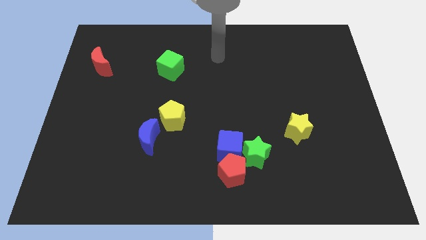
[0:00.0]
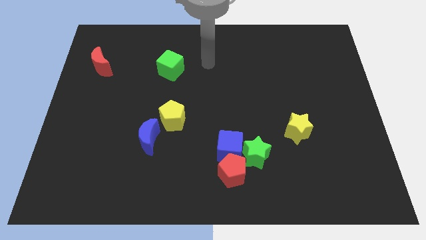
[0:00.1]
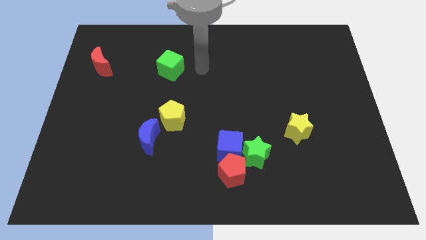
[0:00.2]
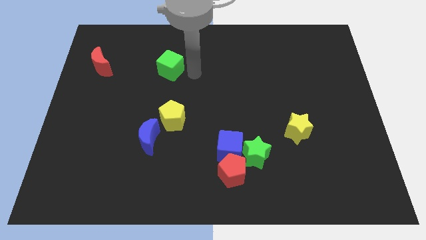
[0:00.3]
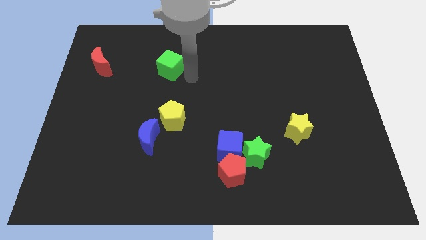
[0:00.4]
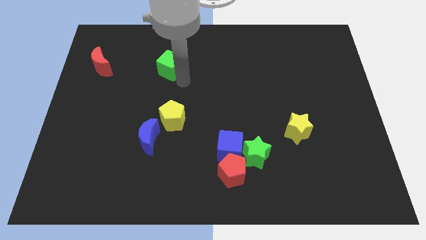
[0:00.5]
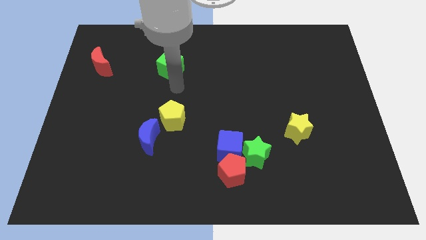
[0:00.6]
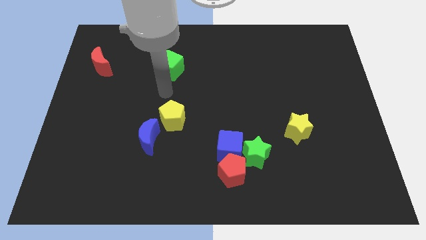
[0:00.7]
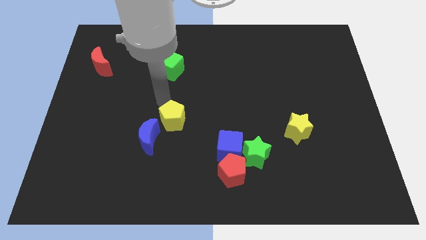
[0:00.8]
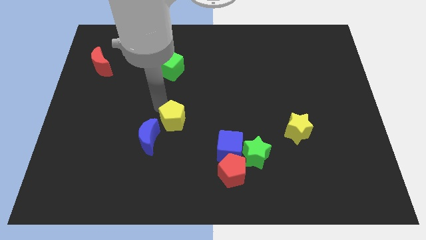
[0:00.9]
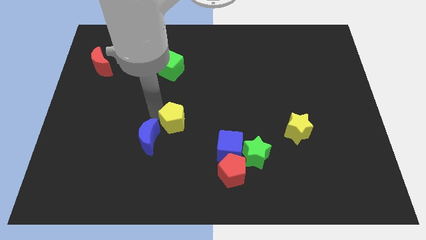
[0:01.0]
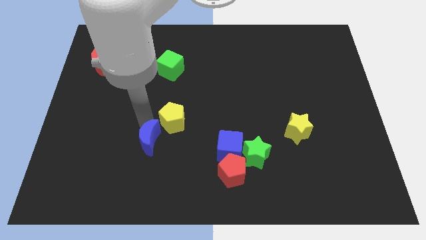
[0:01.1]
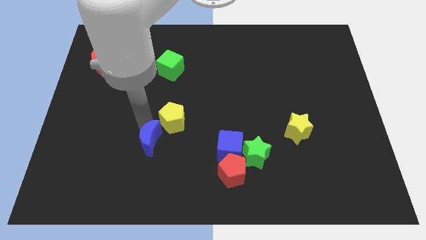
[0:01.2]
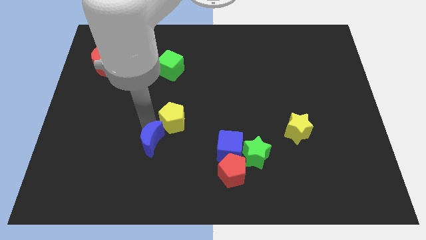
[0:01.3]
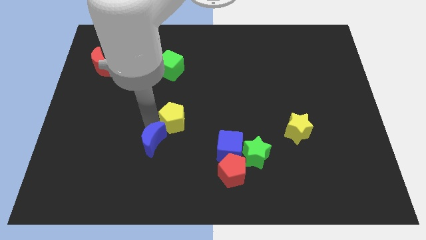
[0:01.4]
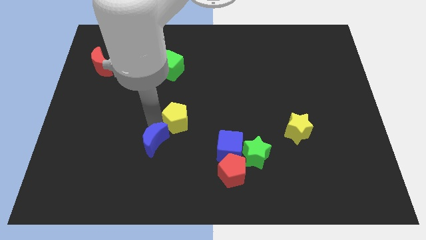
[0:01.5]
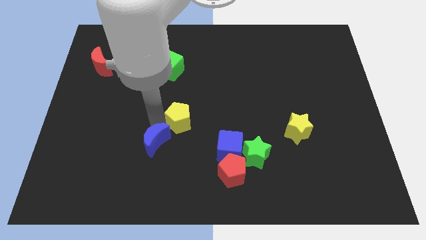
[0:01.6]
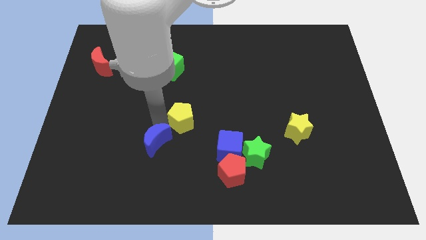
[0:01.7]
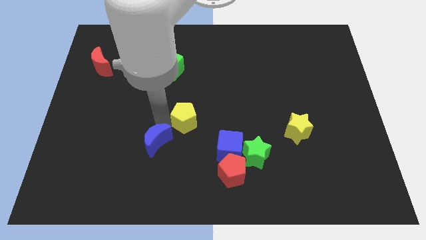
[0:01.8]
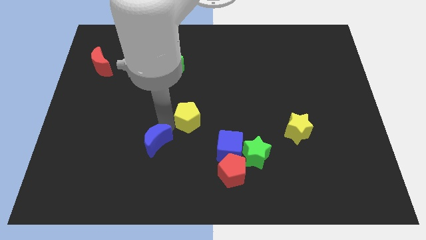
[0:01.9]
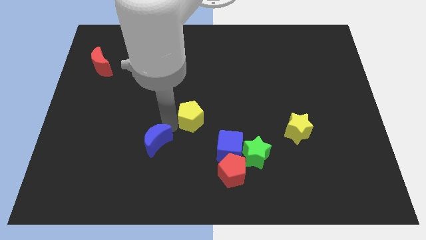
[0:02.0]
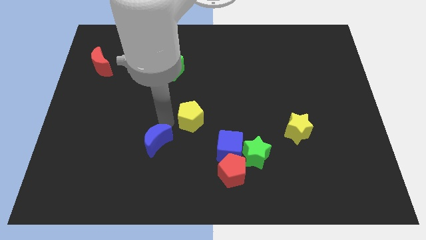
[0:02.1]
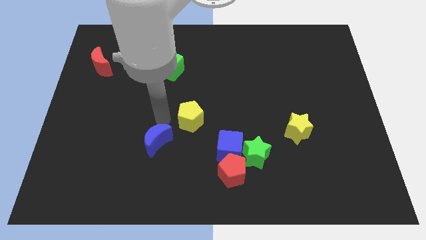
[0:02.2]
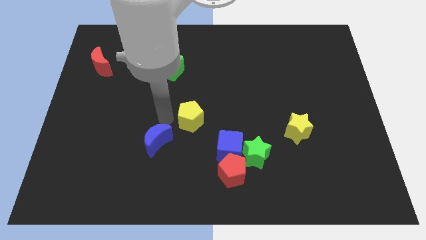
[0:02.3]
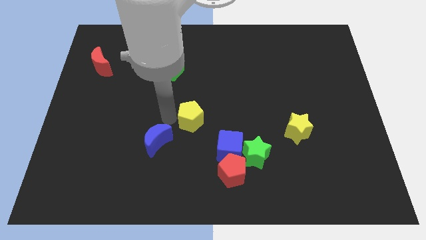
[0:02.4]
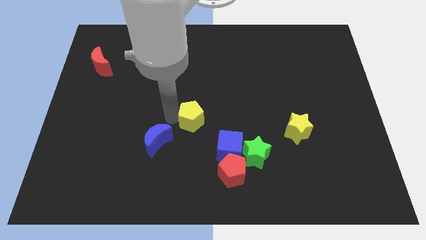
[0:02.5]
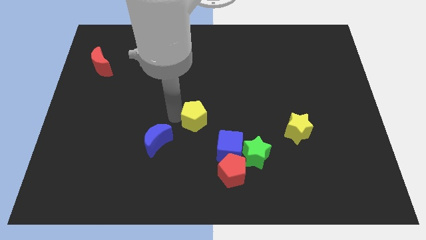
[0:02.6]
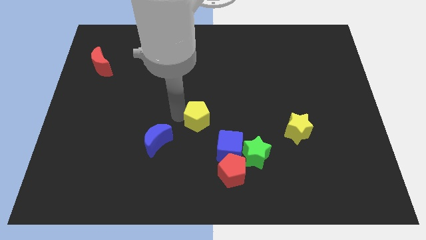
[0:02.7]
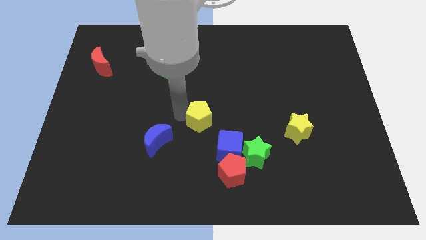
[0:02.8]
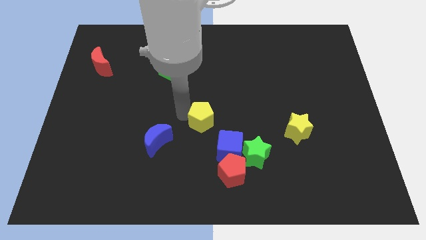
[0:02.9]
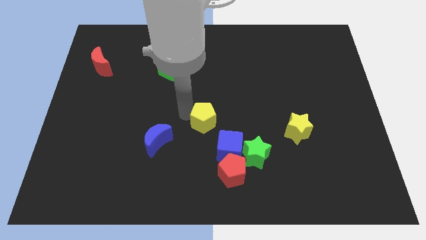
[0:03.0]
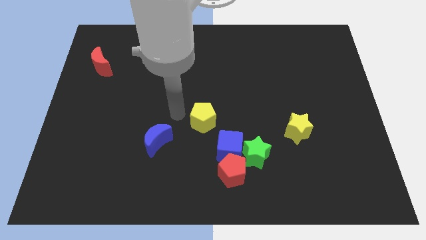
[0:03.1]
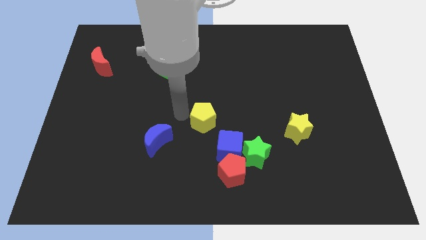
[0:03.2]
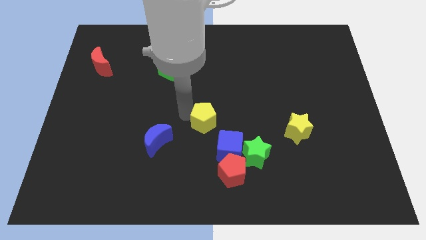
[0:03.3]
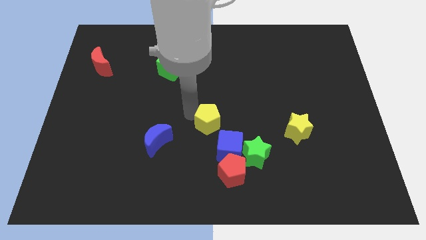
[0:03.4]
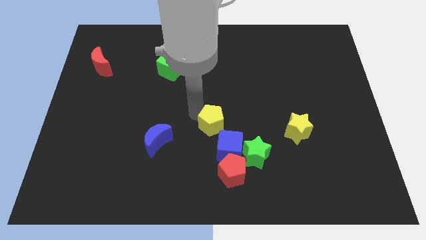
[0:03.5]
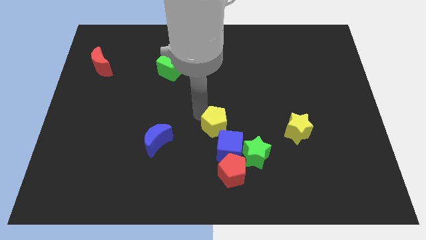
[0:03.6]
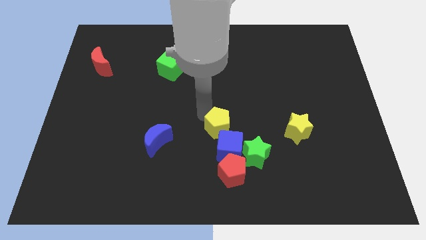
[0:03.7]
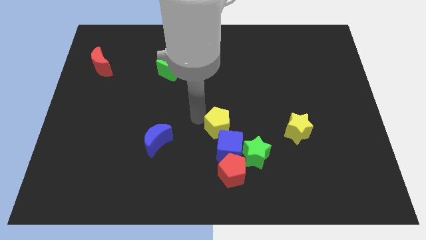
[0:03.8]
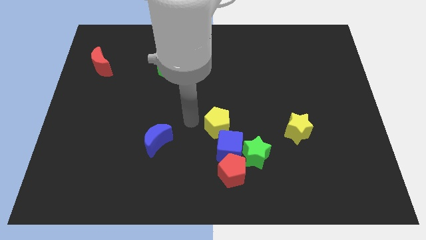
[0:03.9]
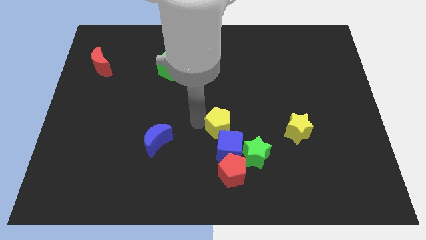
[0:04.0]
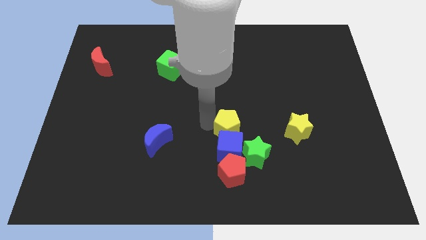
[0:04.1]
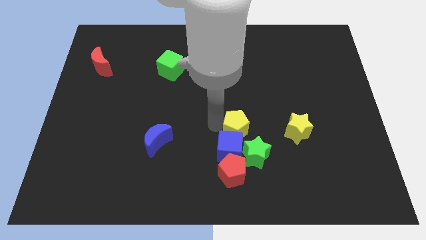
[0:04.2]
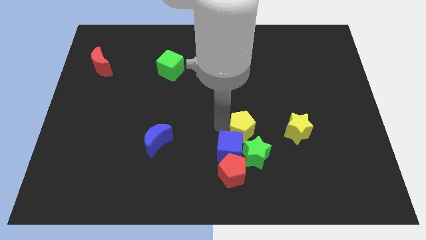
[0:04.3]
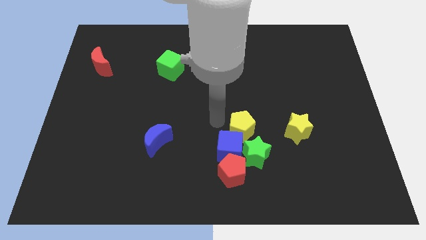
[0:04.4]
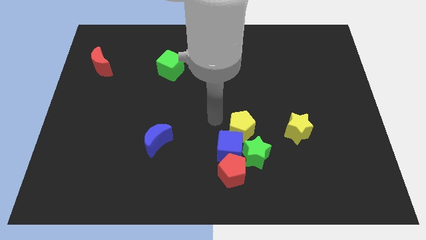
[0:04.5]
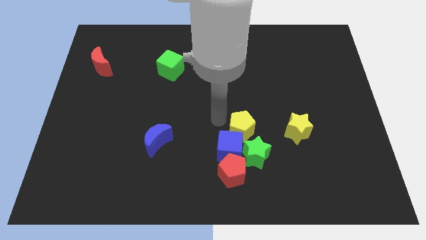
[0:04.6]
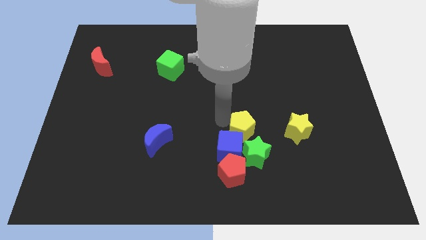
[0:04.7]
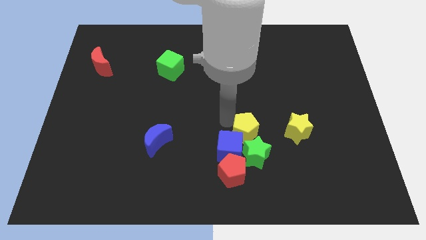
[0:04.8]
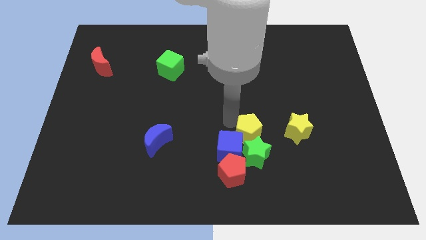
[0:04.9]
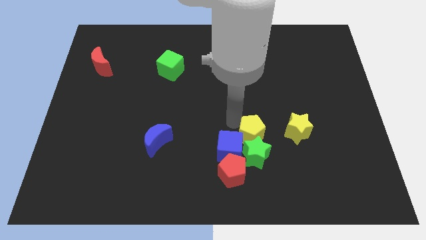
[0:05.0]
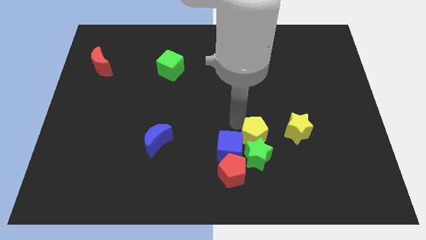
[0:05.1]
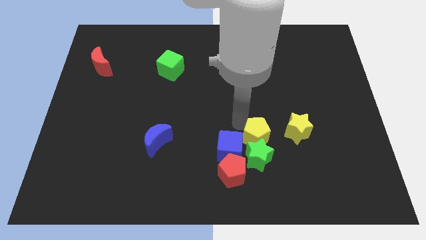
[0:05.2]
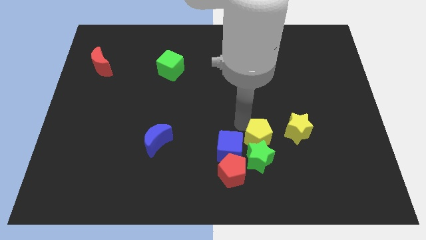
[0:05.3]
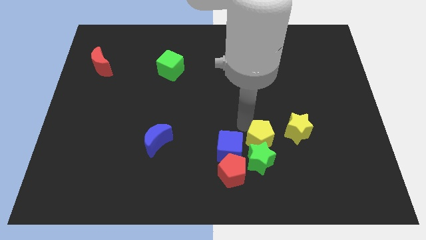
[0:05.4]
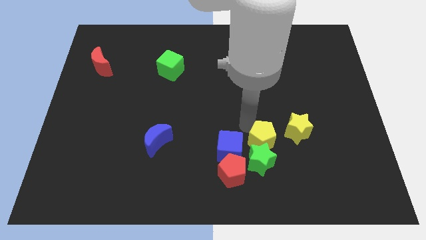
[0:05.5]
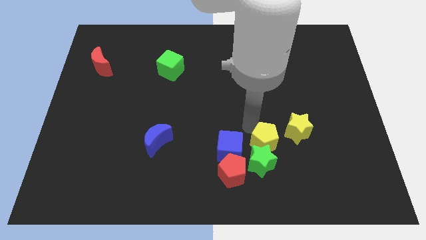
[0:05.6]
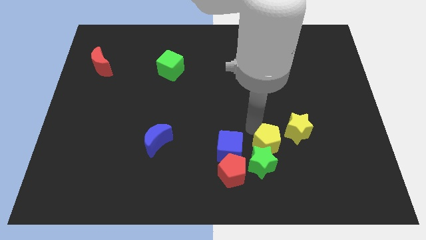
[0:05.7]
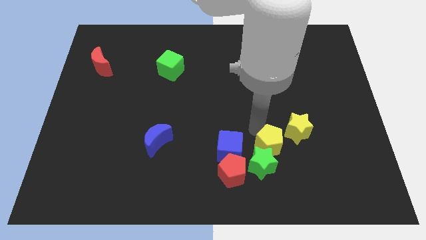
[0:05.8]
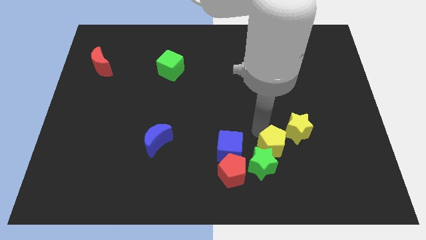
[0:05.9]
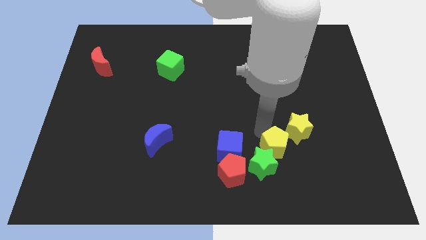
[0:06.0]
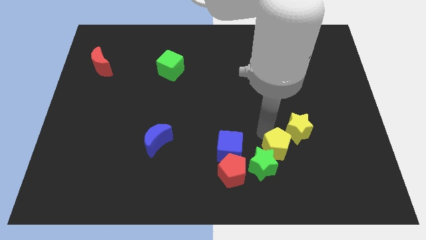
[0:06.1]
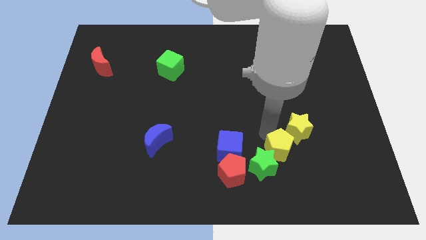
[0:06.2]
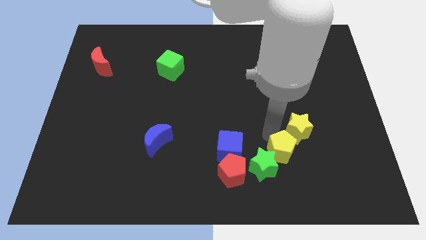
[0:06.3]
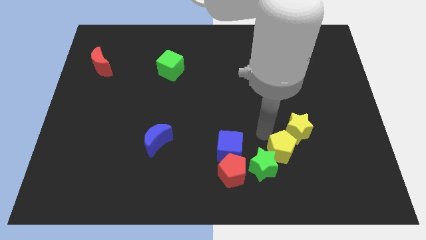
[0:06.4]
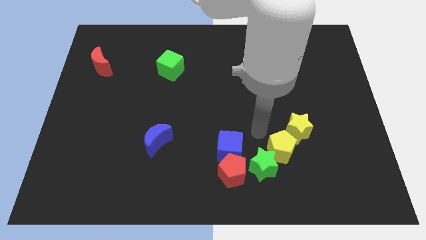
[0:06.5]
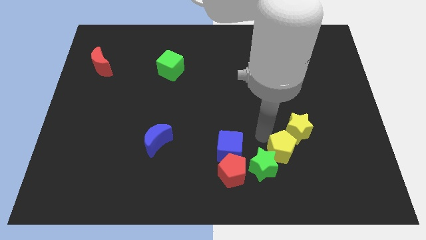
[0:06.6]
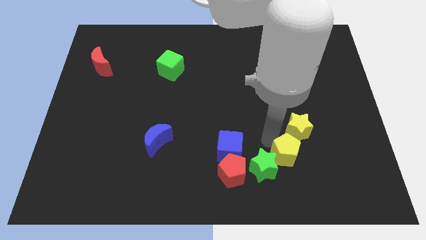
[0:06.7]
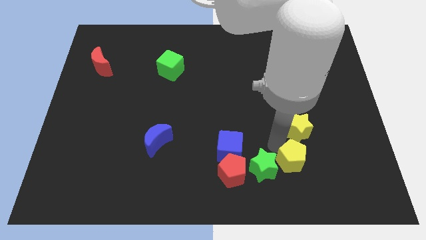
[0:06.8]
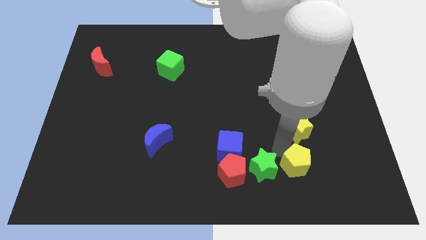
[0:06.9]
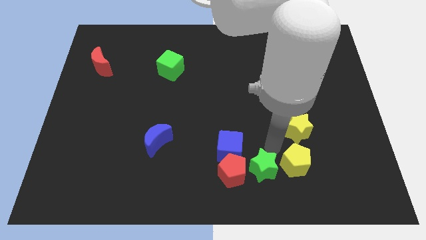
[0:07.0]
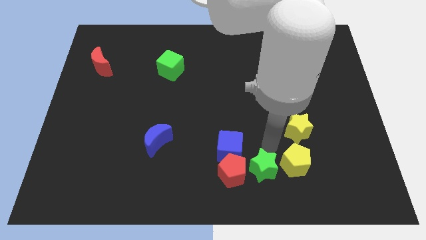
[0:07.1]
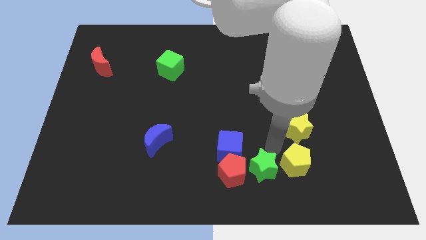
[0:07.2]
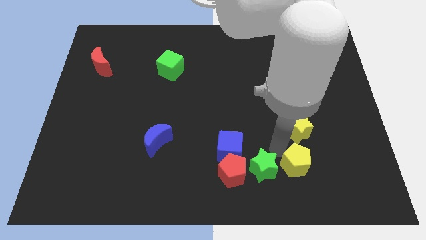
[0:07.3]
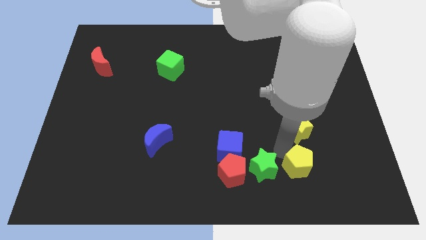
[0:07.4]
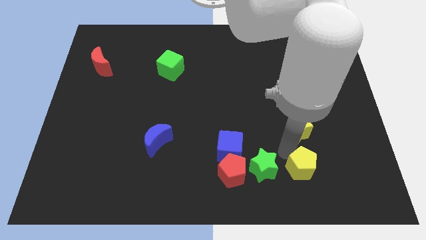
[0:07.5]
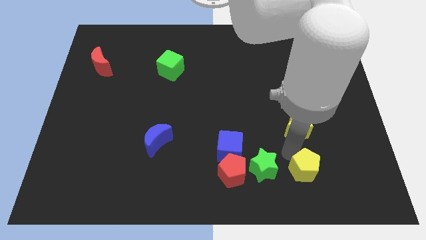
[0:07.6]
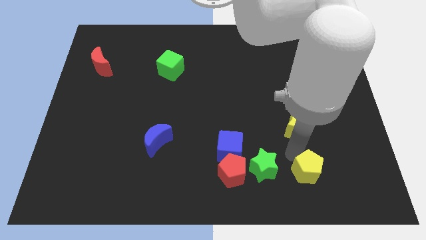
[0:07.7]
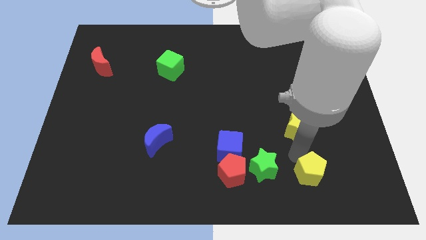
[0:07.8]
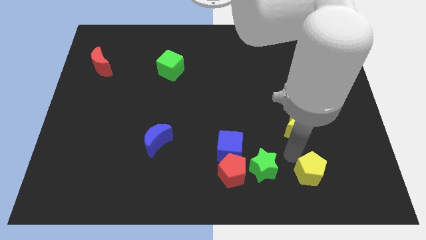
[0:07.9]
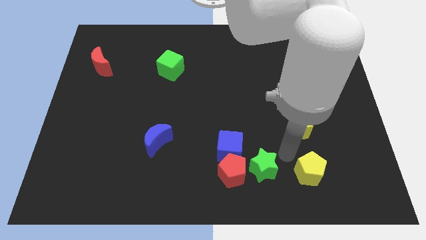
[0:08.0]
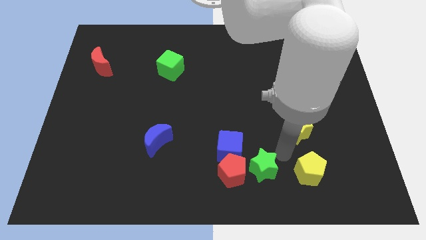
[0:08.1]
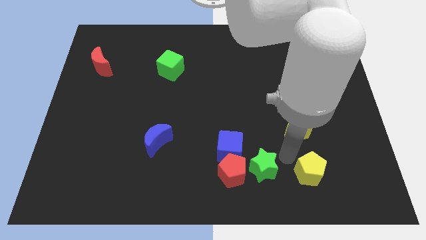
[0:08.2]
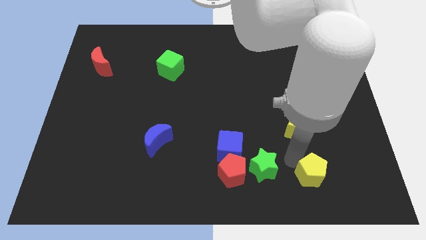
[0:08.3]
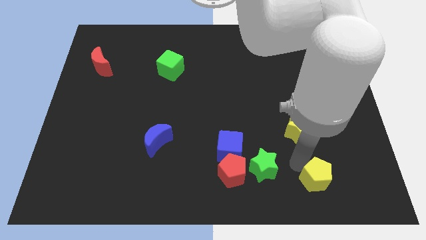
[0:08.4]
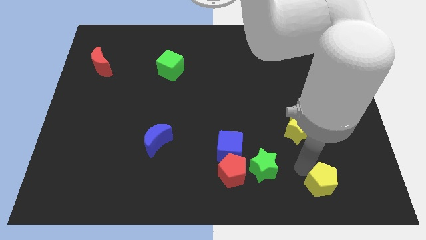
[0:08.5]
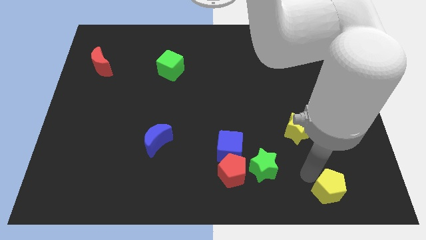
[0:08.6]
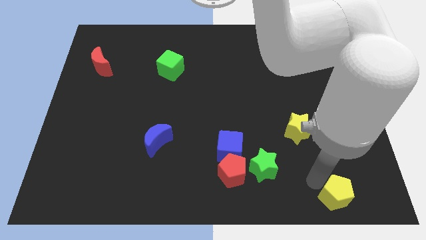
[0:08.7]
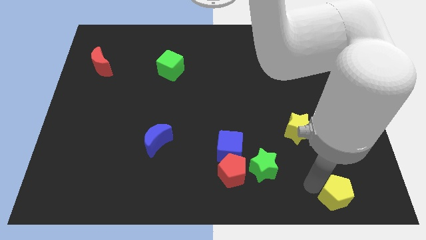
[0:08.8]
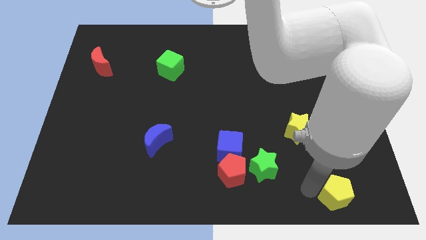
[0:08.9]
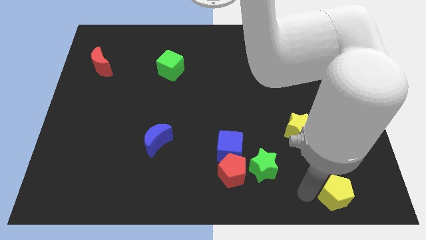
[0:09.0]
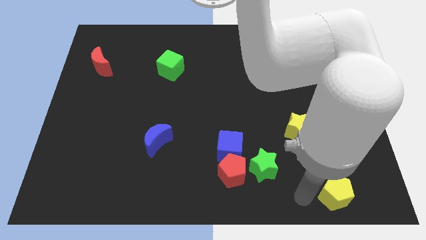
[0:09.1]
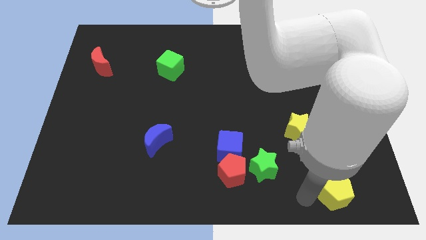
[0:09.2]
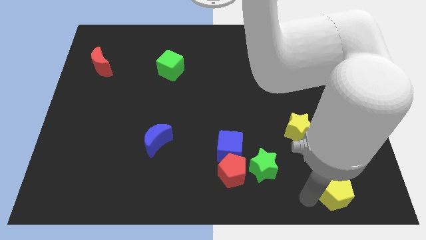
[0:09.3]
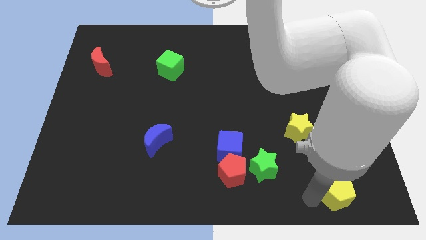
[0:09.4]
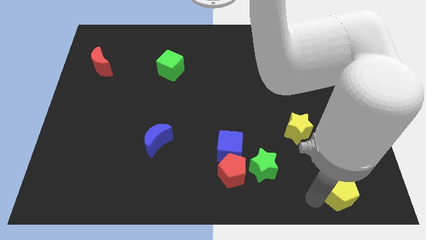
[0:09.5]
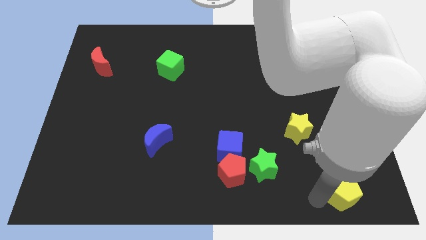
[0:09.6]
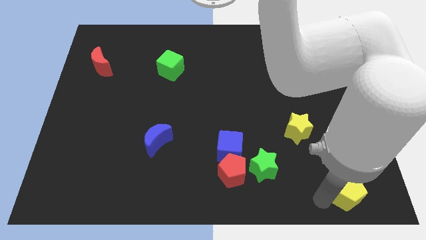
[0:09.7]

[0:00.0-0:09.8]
move the yellow pentagon to the lower right corner
